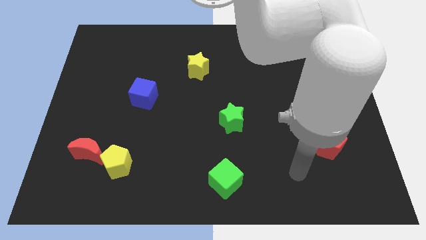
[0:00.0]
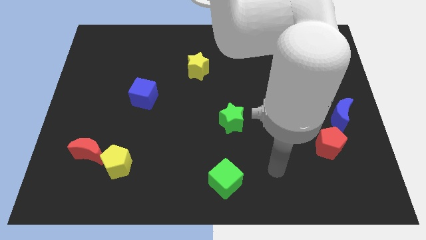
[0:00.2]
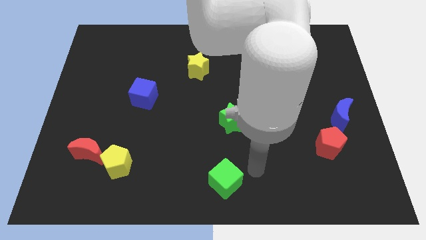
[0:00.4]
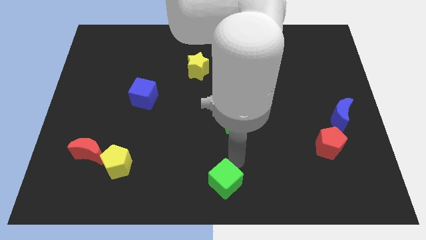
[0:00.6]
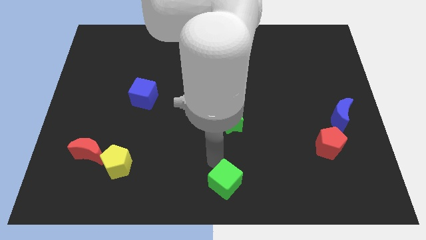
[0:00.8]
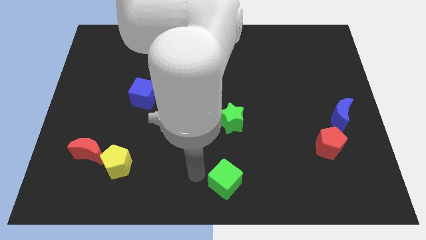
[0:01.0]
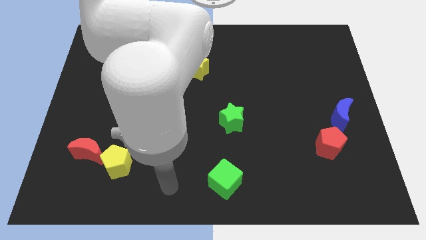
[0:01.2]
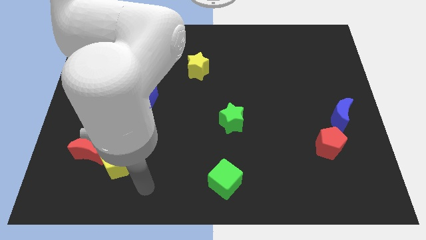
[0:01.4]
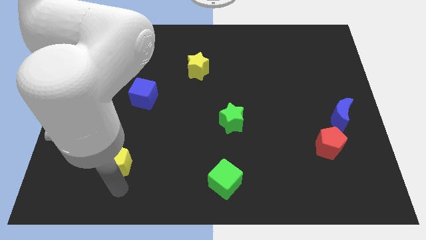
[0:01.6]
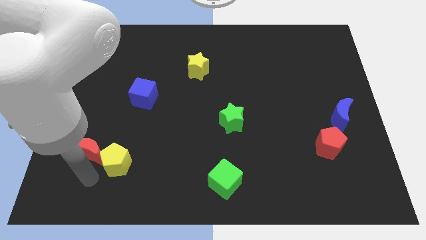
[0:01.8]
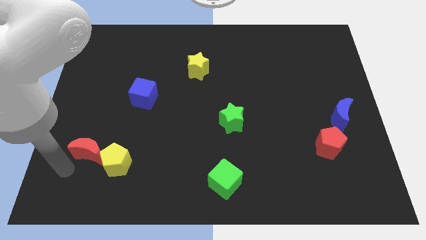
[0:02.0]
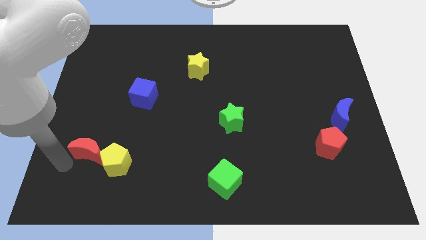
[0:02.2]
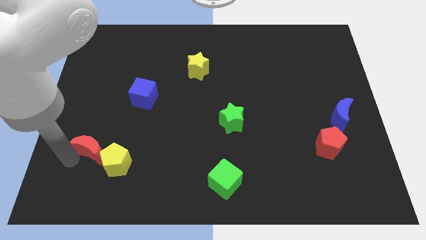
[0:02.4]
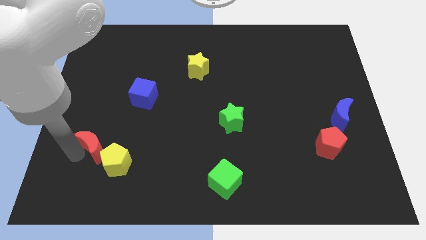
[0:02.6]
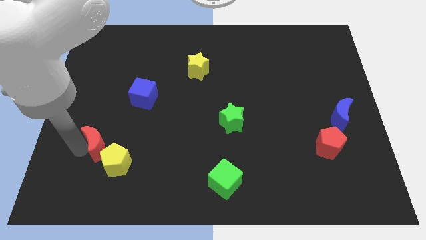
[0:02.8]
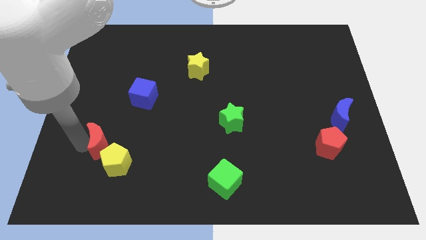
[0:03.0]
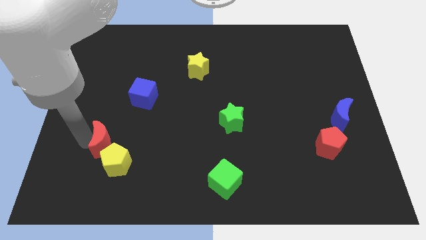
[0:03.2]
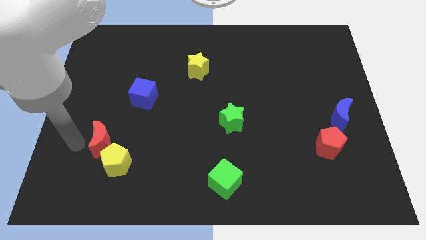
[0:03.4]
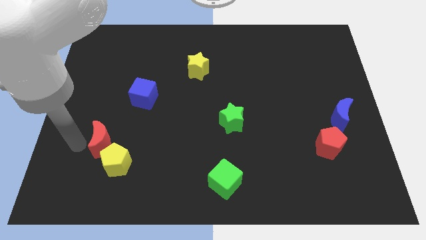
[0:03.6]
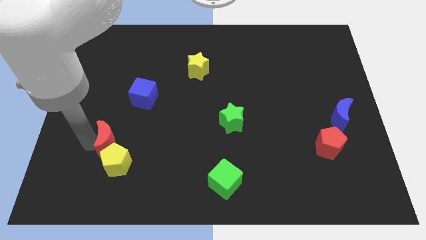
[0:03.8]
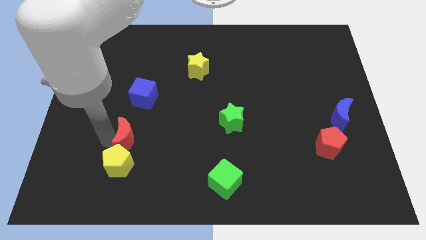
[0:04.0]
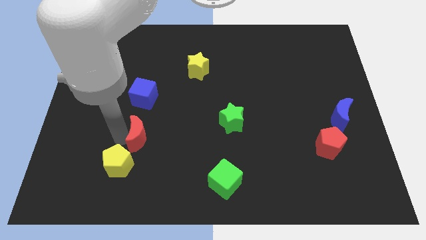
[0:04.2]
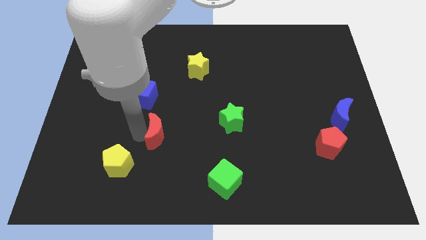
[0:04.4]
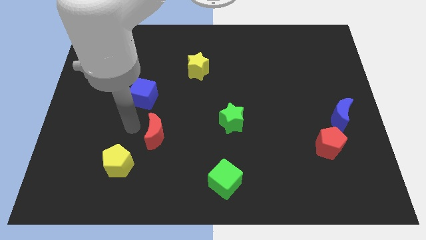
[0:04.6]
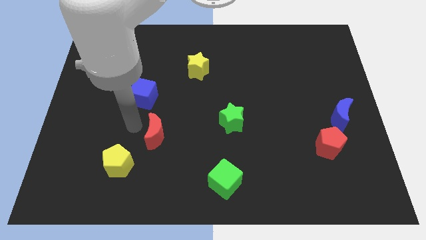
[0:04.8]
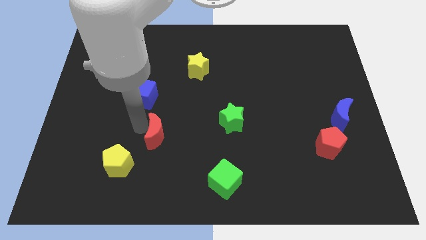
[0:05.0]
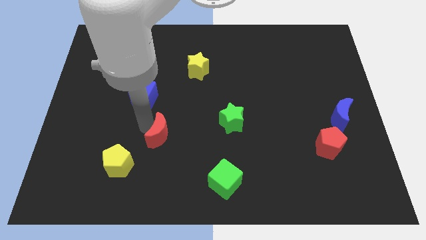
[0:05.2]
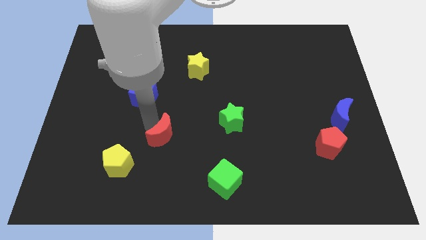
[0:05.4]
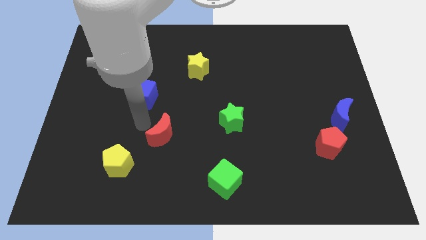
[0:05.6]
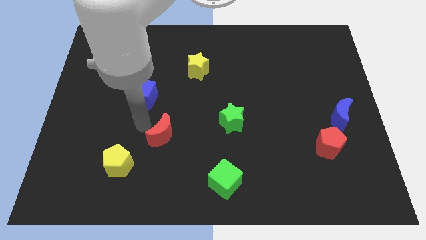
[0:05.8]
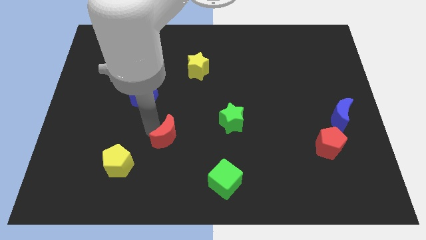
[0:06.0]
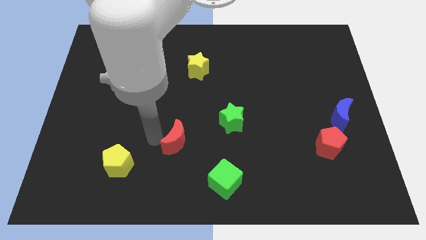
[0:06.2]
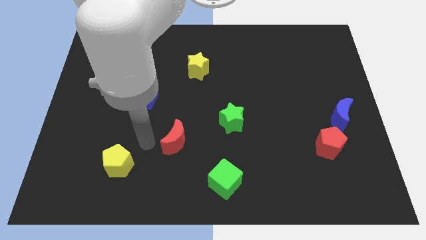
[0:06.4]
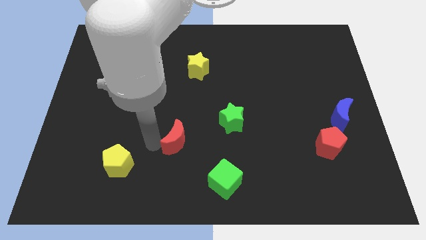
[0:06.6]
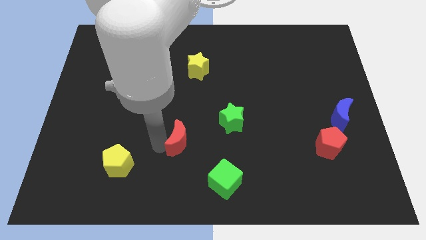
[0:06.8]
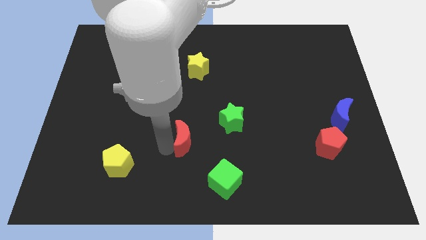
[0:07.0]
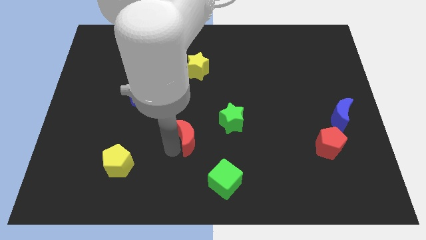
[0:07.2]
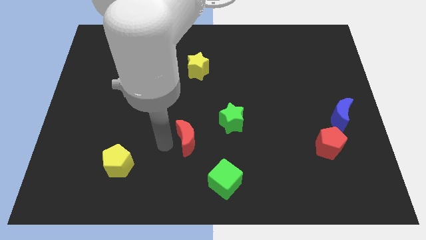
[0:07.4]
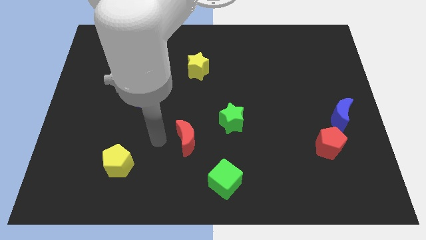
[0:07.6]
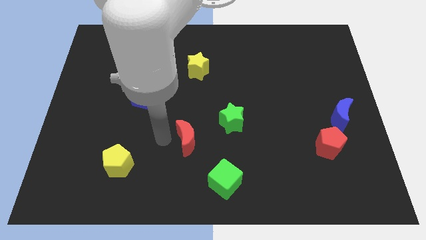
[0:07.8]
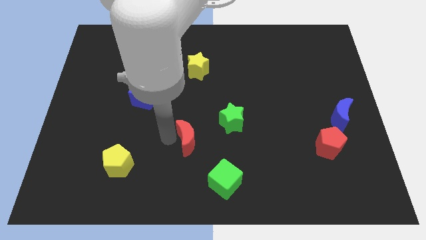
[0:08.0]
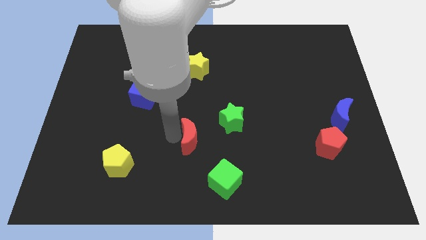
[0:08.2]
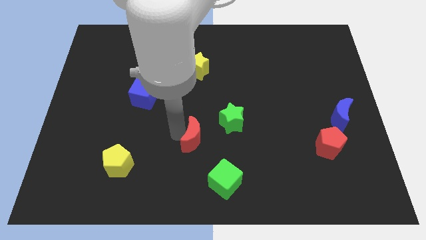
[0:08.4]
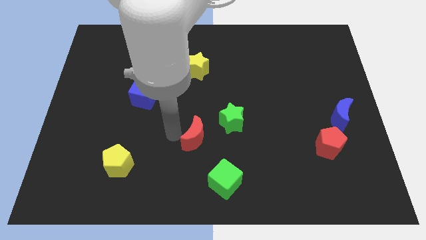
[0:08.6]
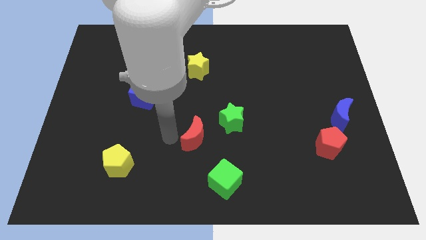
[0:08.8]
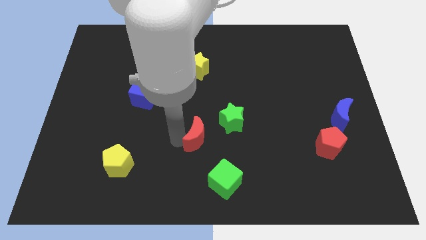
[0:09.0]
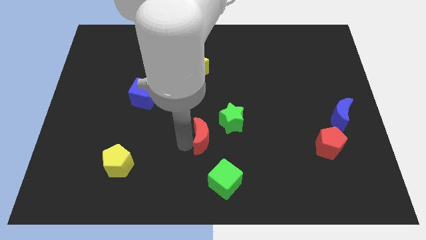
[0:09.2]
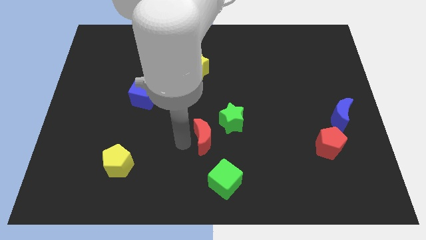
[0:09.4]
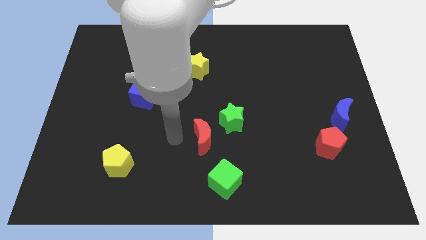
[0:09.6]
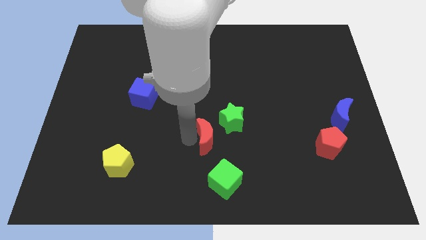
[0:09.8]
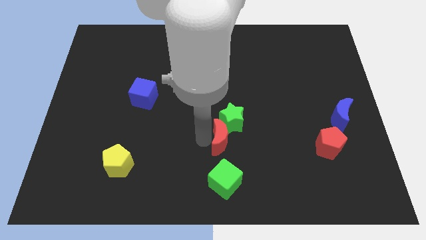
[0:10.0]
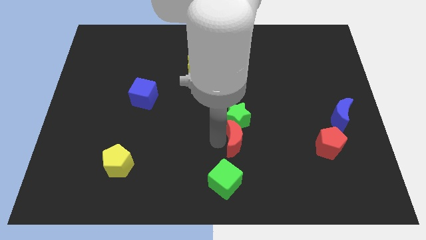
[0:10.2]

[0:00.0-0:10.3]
put the red moon diagonally down and to the right of the green star

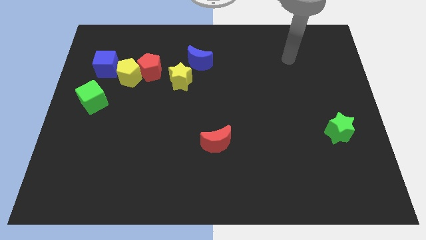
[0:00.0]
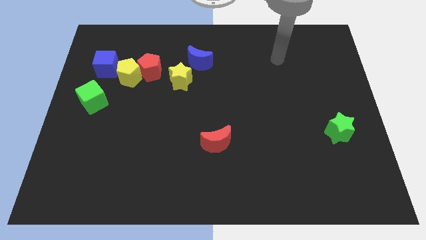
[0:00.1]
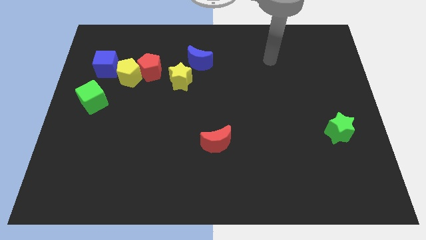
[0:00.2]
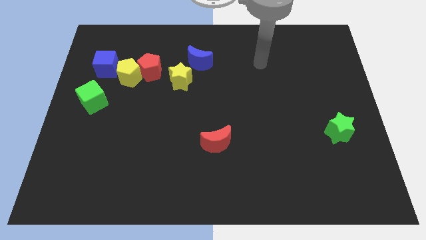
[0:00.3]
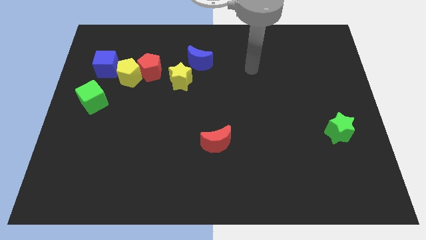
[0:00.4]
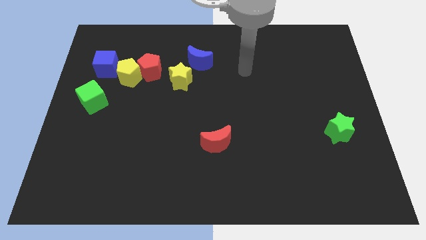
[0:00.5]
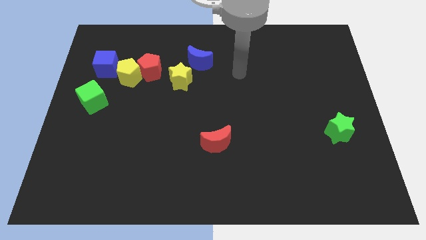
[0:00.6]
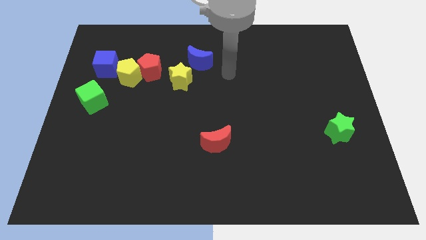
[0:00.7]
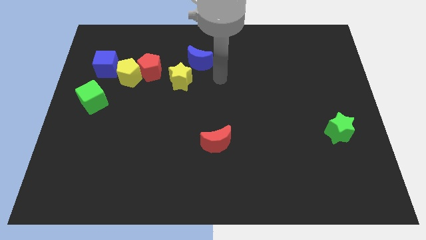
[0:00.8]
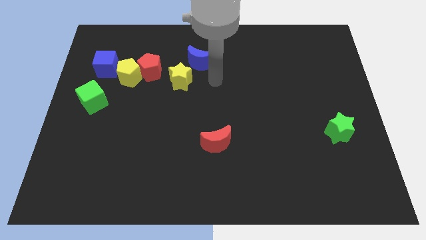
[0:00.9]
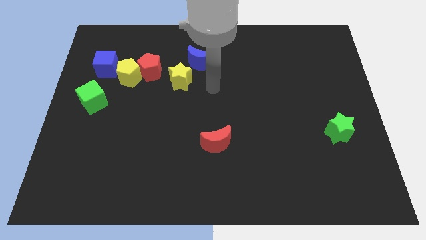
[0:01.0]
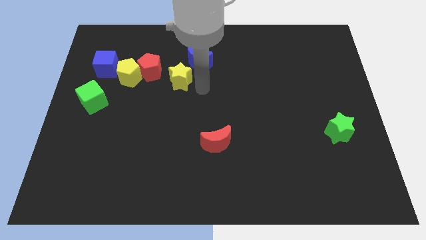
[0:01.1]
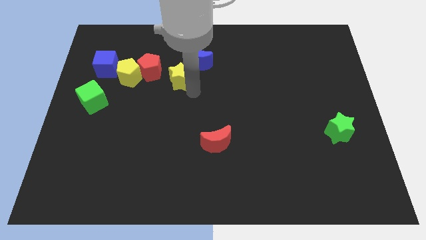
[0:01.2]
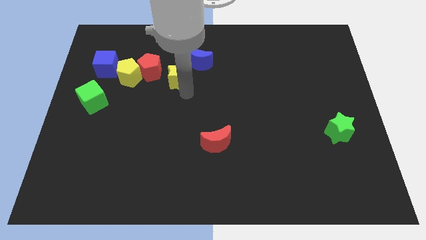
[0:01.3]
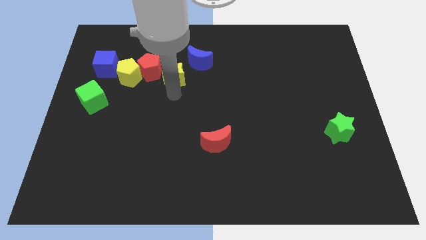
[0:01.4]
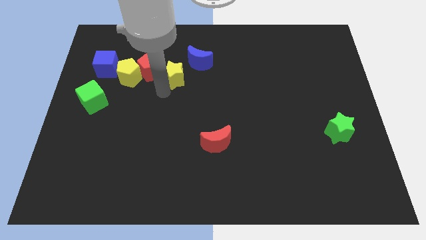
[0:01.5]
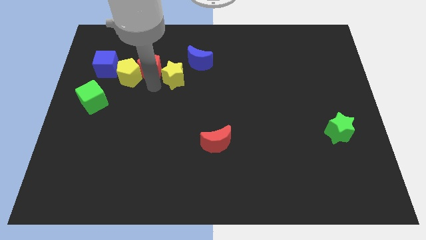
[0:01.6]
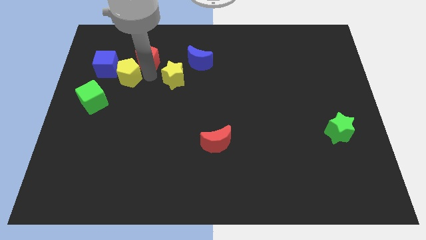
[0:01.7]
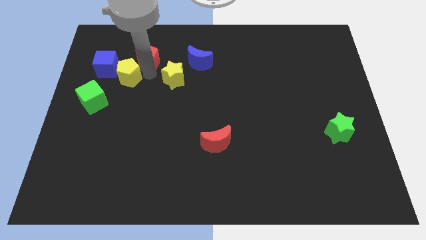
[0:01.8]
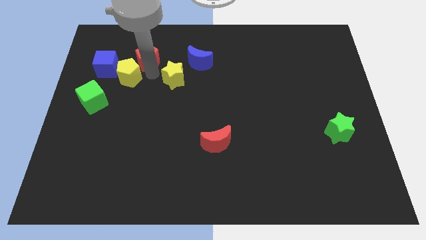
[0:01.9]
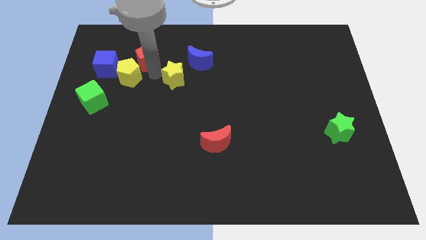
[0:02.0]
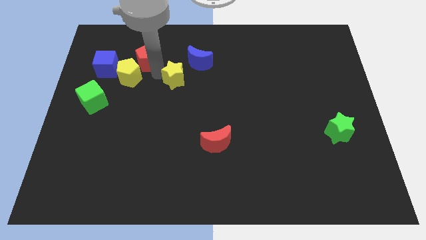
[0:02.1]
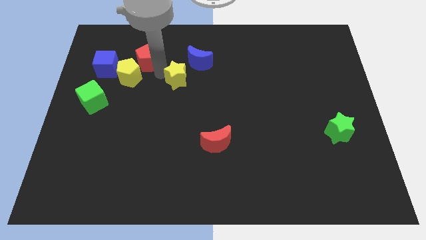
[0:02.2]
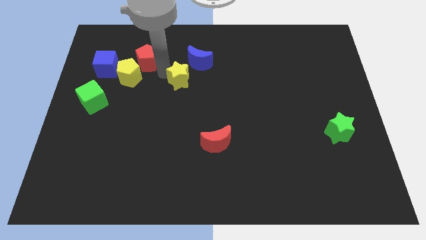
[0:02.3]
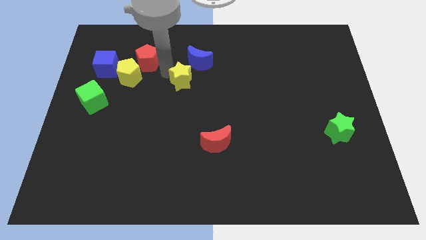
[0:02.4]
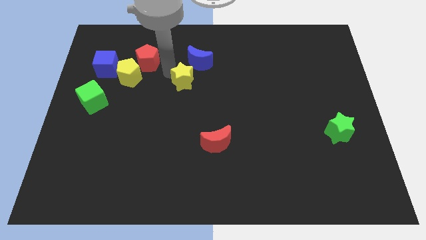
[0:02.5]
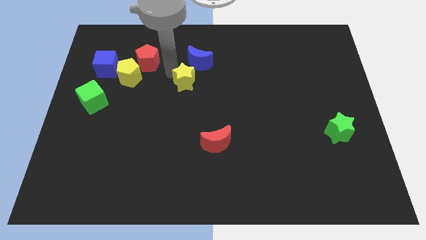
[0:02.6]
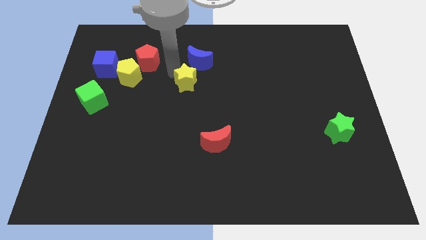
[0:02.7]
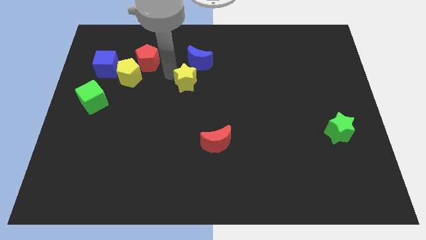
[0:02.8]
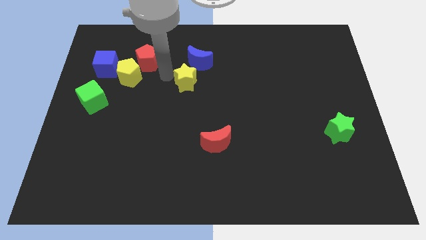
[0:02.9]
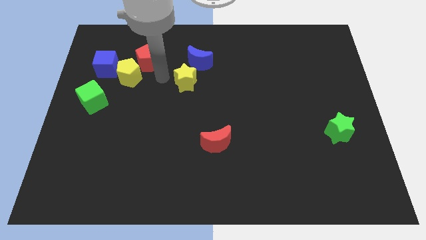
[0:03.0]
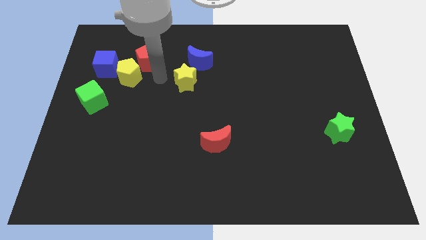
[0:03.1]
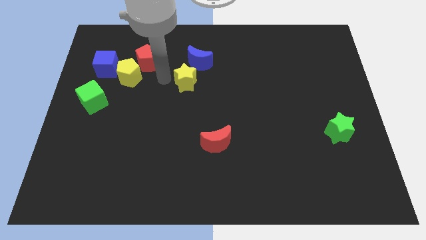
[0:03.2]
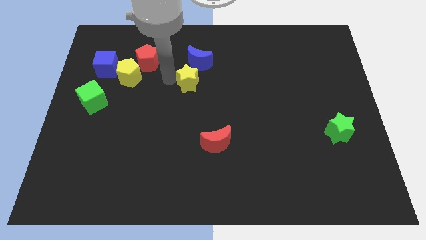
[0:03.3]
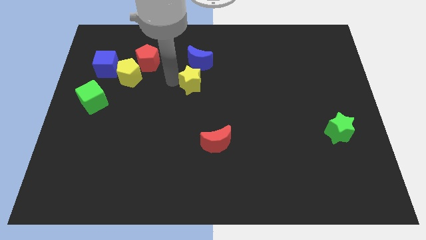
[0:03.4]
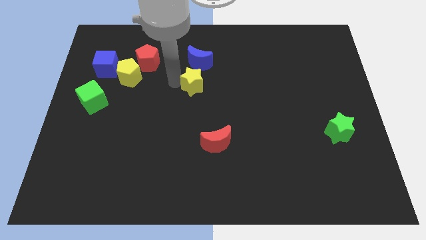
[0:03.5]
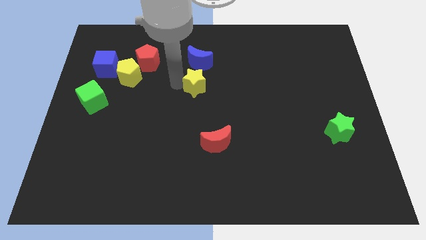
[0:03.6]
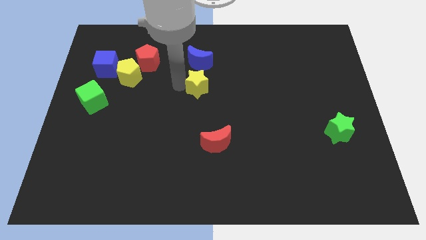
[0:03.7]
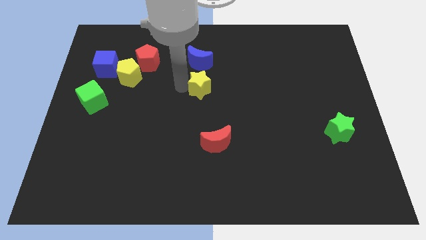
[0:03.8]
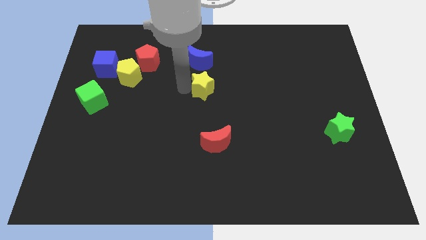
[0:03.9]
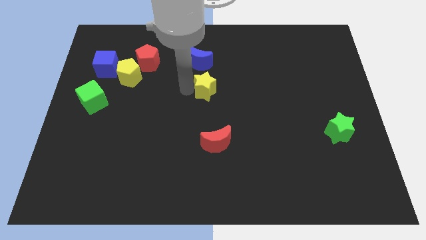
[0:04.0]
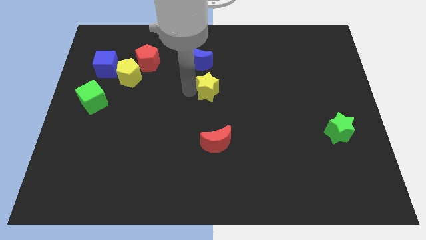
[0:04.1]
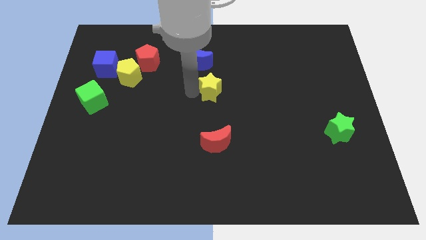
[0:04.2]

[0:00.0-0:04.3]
put the yellow star to the bottom right of the blue moon
